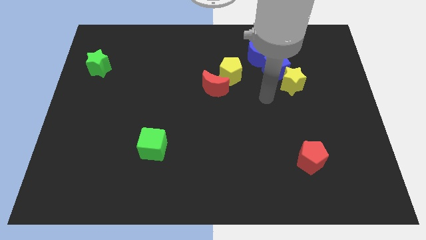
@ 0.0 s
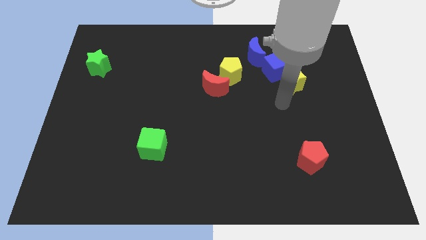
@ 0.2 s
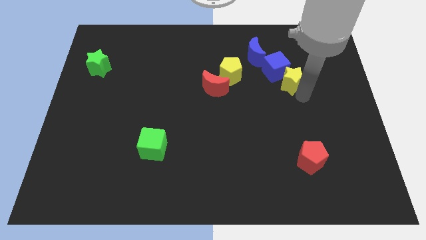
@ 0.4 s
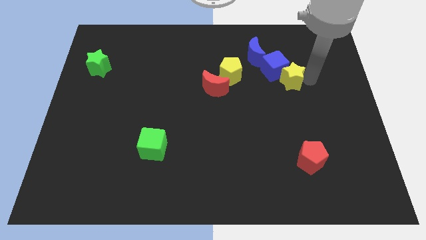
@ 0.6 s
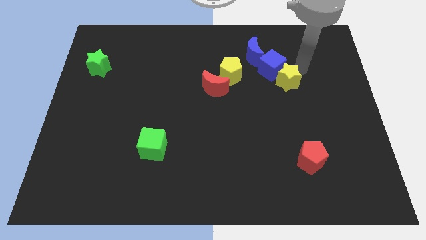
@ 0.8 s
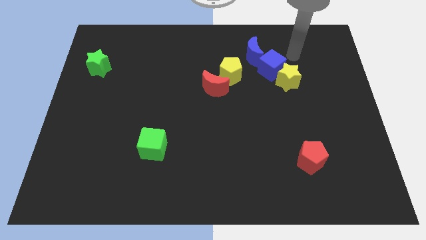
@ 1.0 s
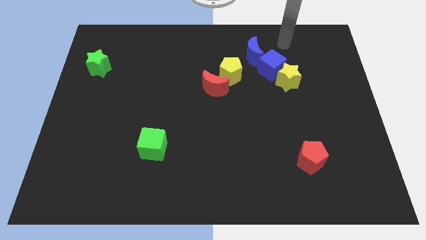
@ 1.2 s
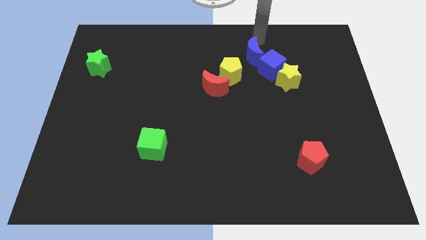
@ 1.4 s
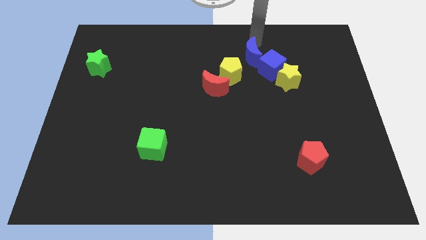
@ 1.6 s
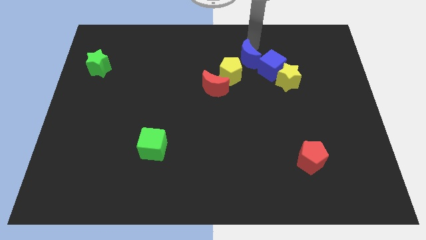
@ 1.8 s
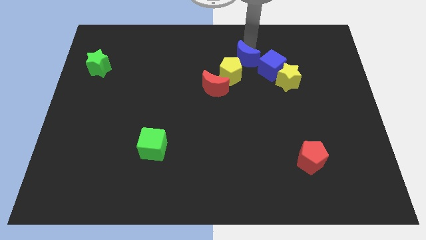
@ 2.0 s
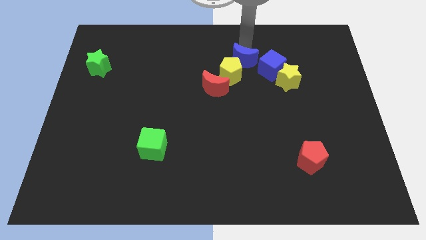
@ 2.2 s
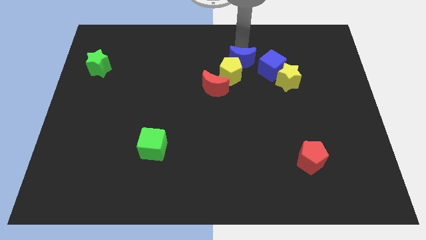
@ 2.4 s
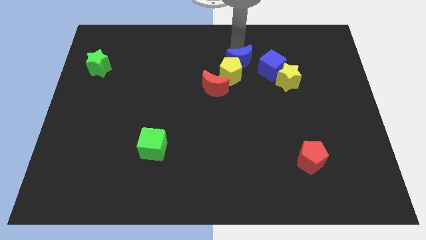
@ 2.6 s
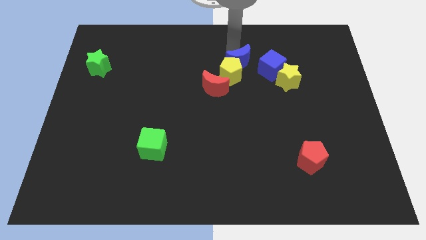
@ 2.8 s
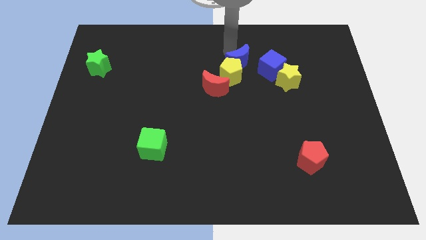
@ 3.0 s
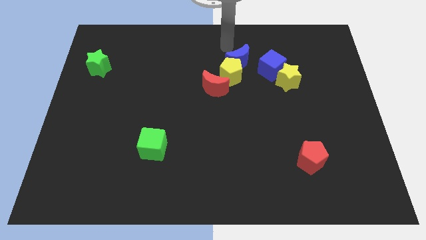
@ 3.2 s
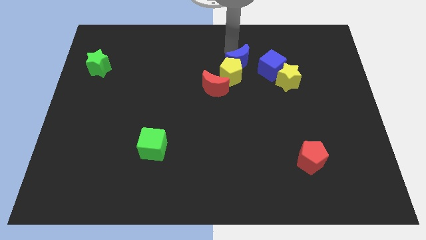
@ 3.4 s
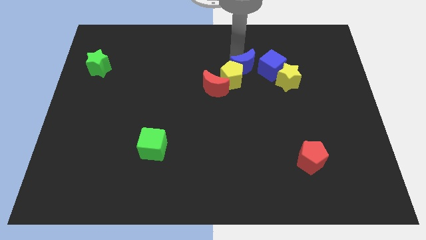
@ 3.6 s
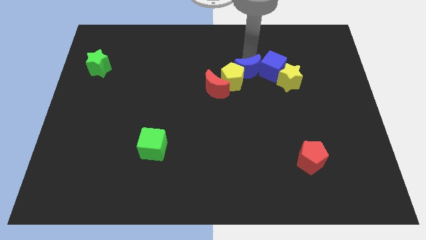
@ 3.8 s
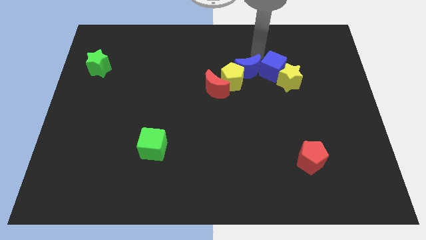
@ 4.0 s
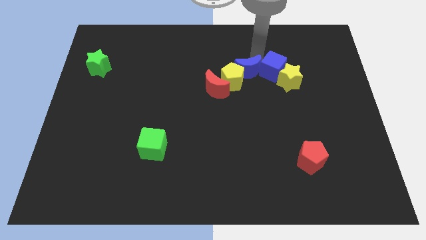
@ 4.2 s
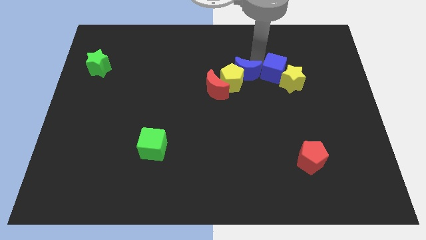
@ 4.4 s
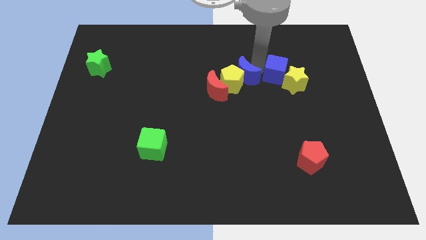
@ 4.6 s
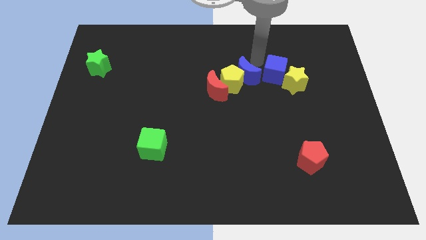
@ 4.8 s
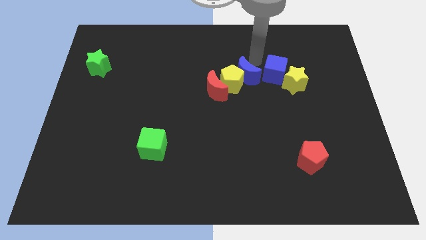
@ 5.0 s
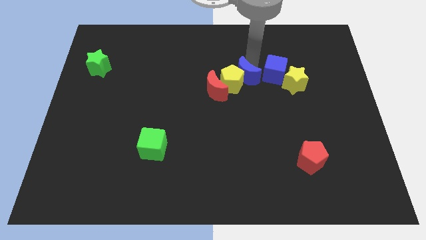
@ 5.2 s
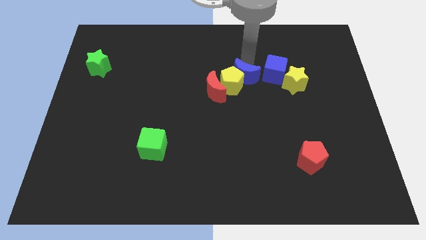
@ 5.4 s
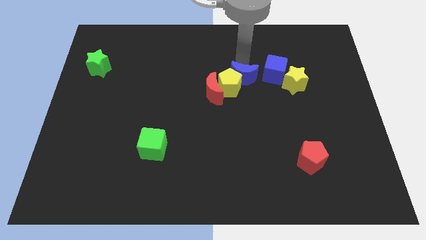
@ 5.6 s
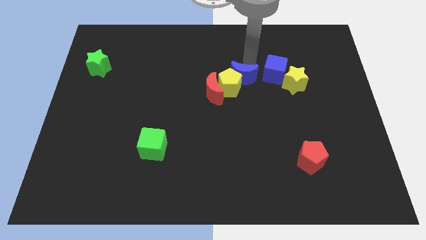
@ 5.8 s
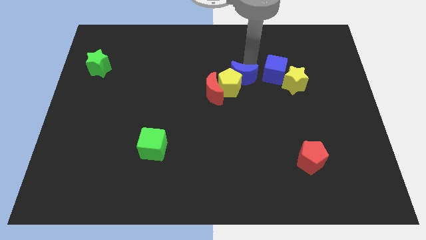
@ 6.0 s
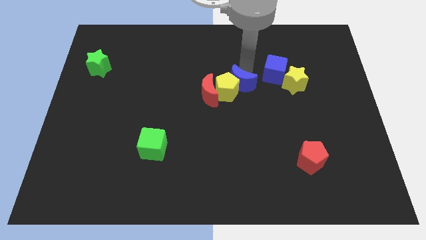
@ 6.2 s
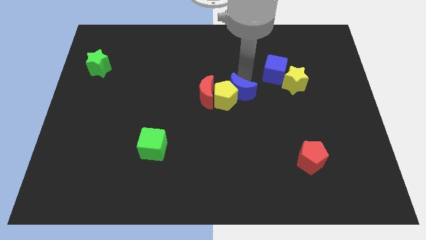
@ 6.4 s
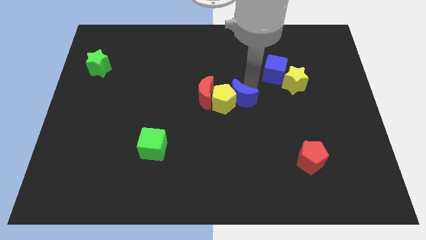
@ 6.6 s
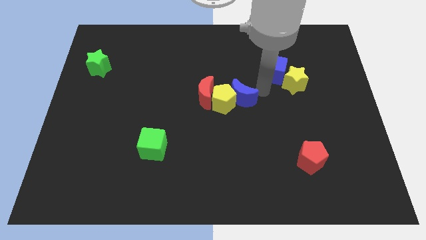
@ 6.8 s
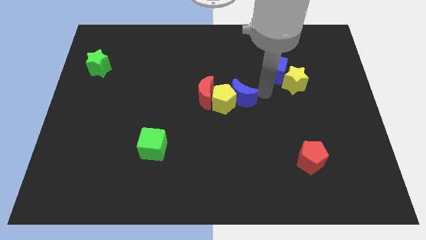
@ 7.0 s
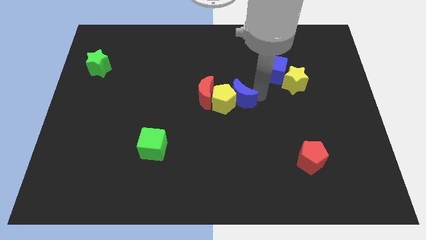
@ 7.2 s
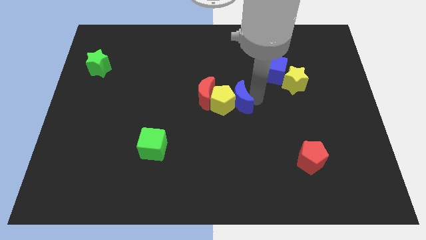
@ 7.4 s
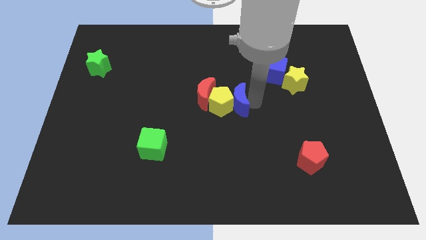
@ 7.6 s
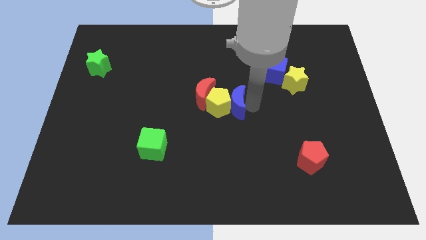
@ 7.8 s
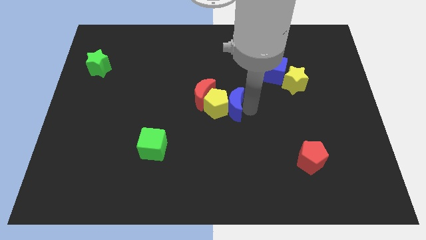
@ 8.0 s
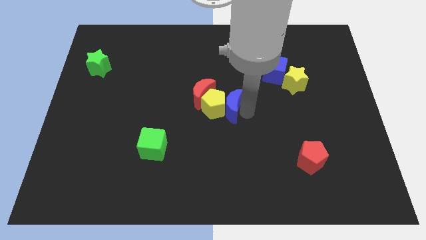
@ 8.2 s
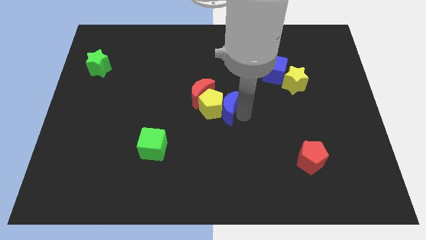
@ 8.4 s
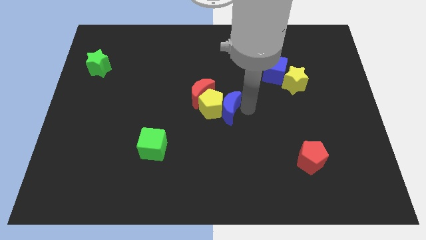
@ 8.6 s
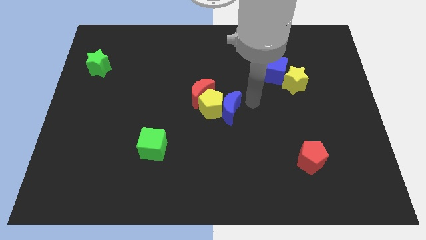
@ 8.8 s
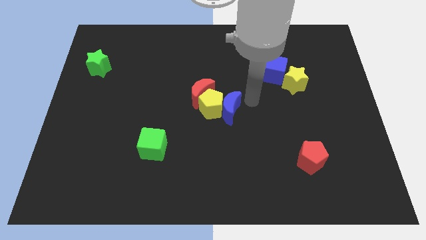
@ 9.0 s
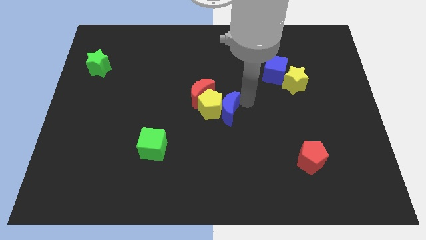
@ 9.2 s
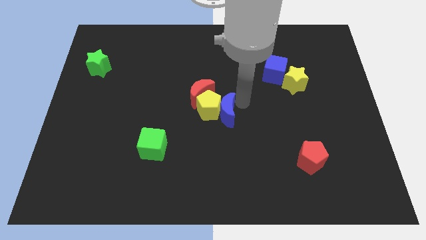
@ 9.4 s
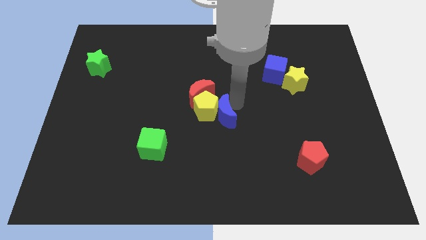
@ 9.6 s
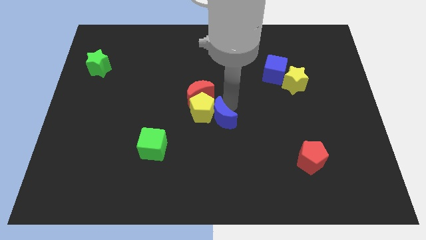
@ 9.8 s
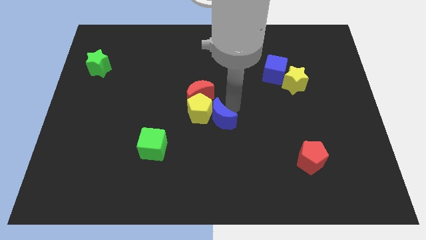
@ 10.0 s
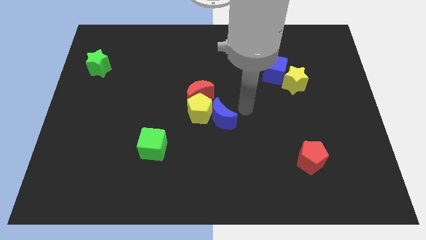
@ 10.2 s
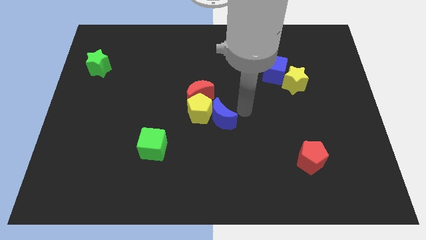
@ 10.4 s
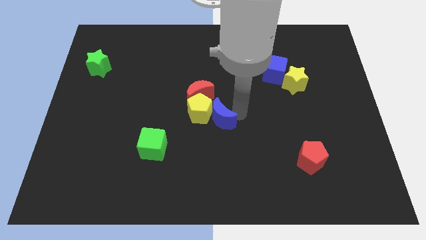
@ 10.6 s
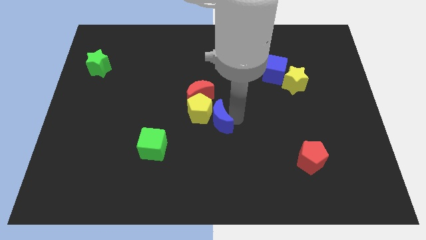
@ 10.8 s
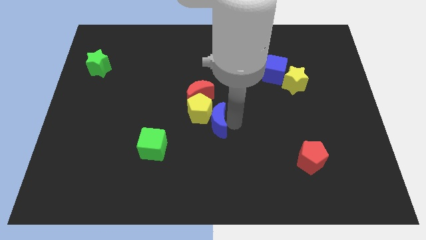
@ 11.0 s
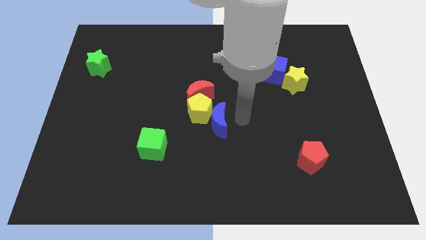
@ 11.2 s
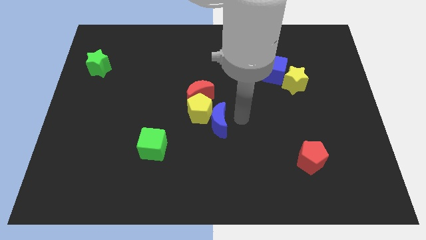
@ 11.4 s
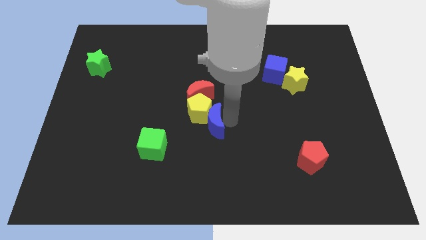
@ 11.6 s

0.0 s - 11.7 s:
move the blue moon downwards and then to the left

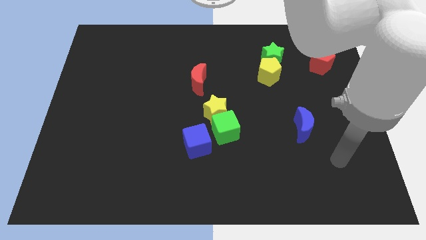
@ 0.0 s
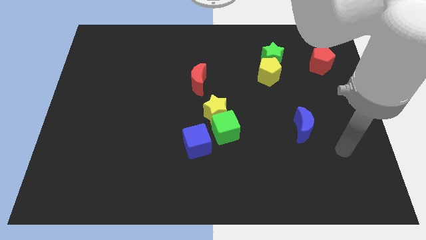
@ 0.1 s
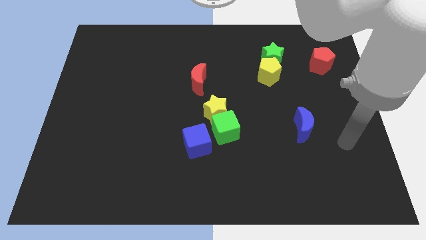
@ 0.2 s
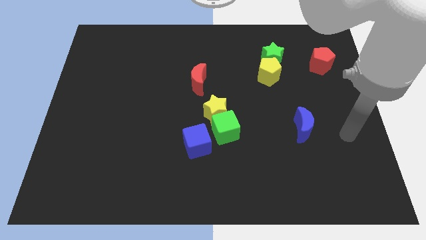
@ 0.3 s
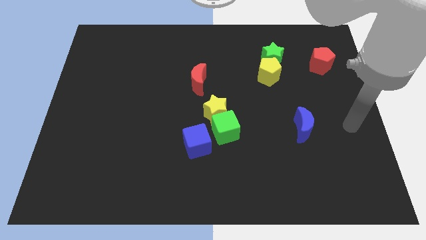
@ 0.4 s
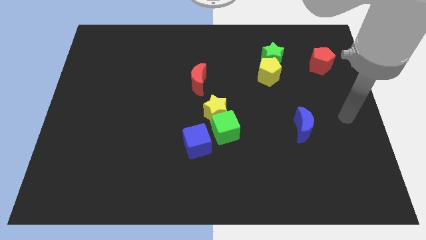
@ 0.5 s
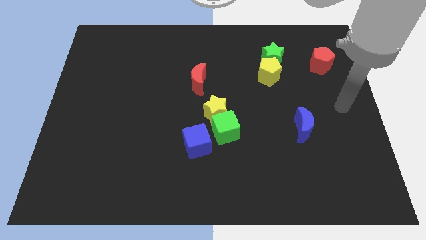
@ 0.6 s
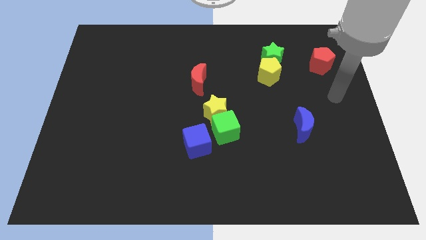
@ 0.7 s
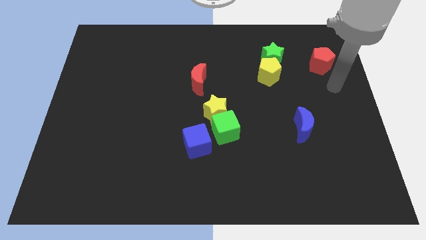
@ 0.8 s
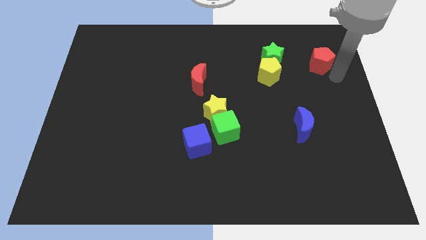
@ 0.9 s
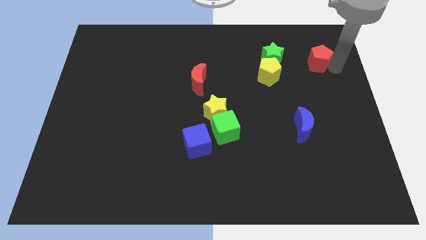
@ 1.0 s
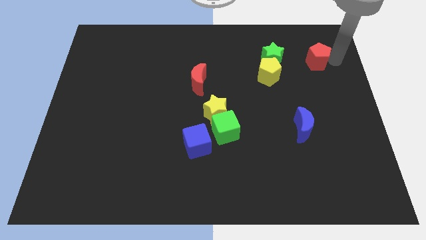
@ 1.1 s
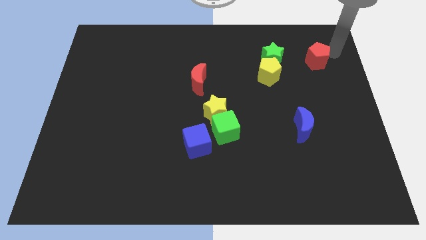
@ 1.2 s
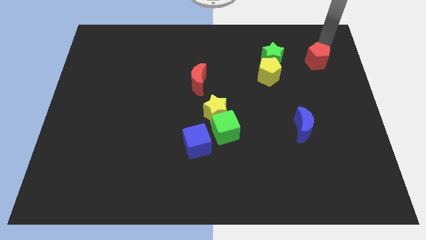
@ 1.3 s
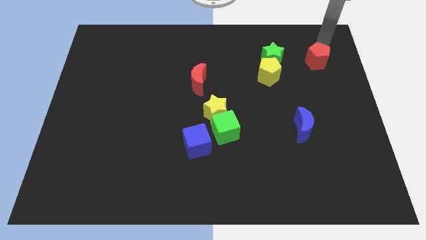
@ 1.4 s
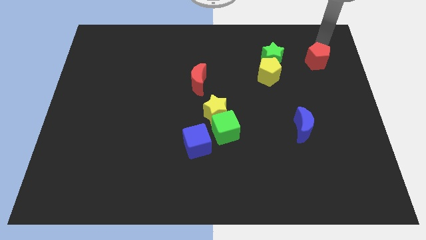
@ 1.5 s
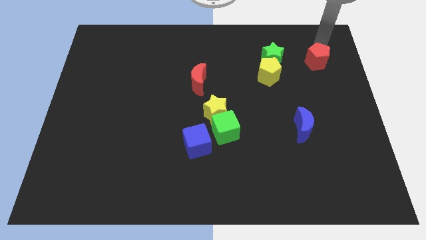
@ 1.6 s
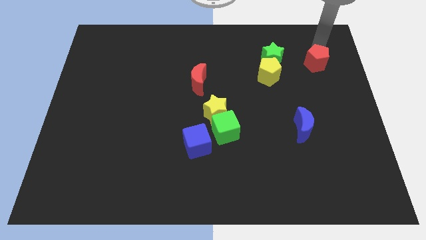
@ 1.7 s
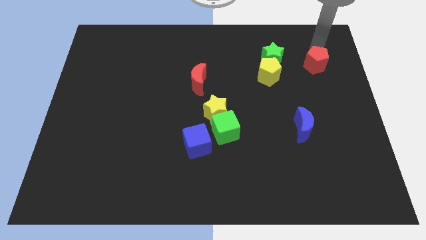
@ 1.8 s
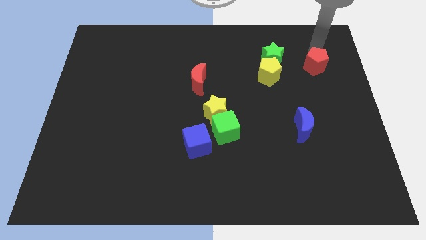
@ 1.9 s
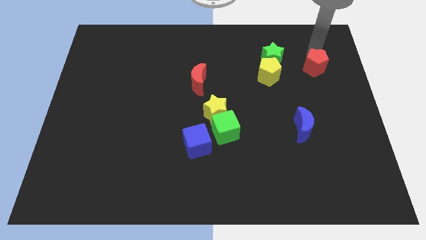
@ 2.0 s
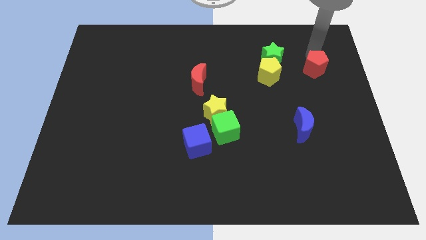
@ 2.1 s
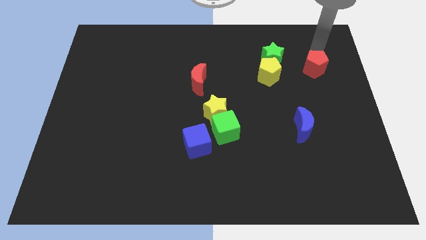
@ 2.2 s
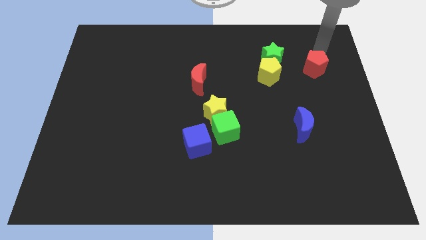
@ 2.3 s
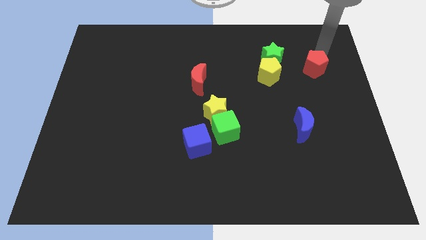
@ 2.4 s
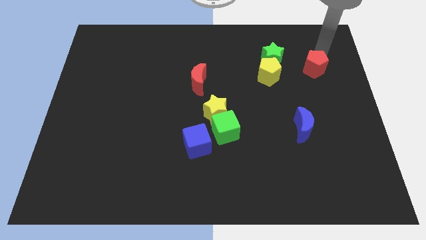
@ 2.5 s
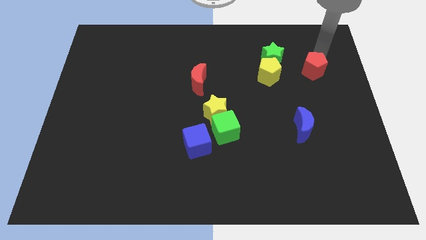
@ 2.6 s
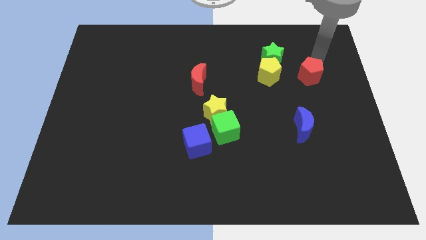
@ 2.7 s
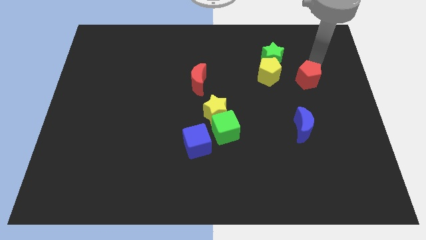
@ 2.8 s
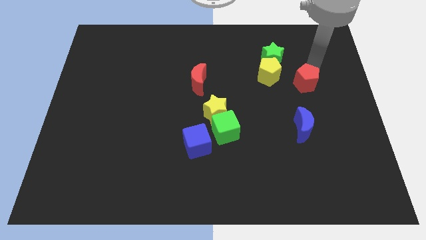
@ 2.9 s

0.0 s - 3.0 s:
move the red pentagon downwards and left diagonally slightly
